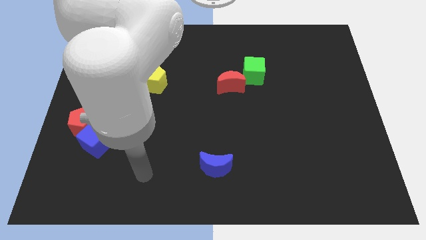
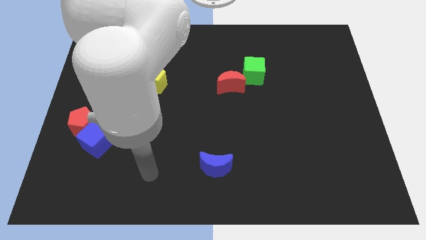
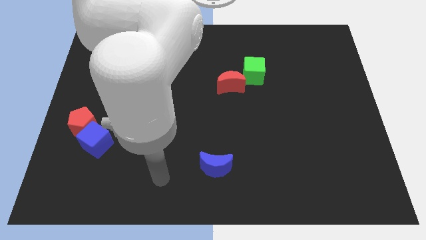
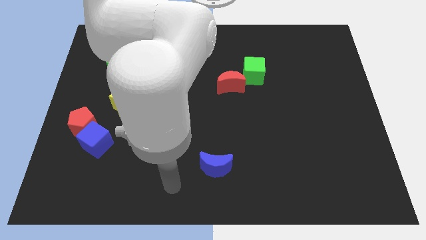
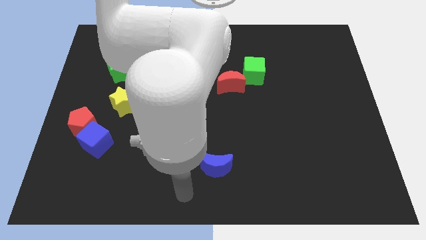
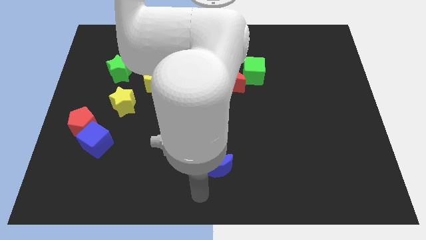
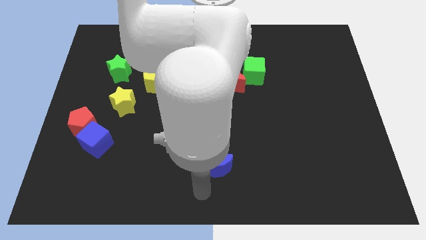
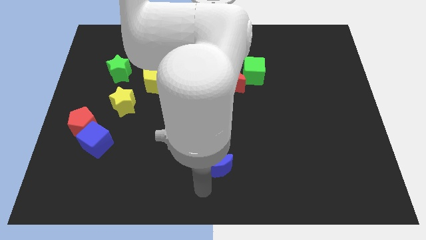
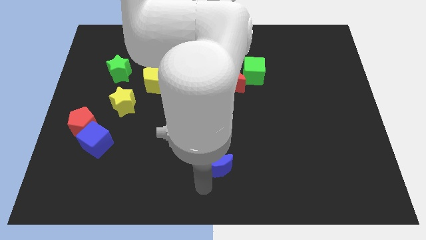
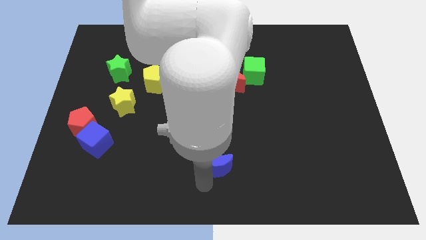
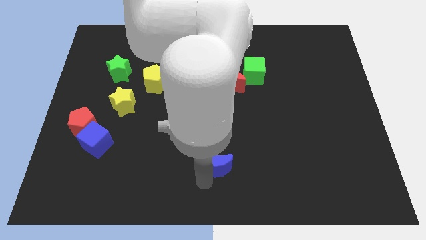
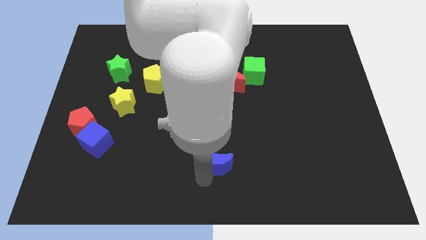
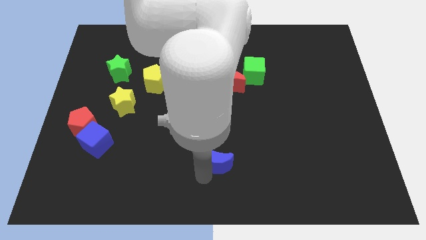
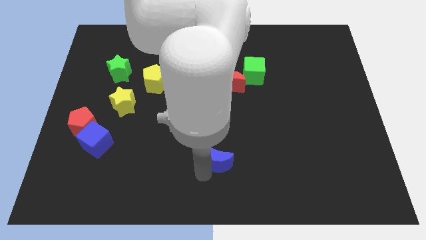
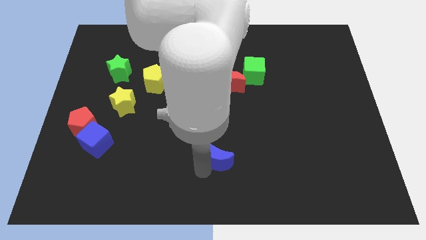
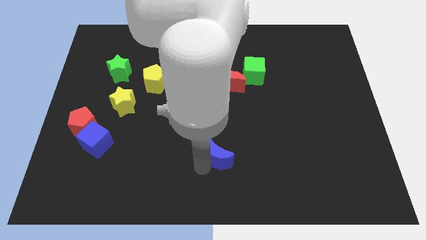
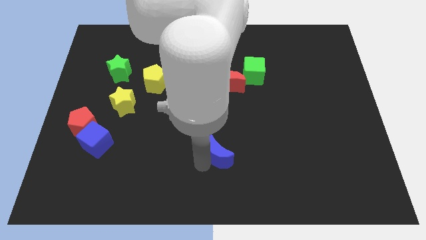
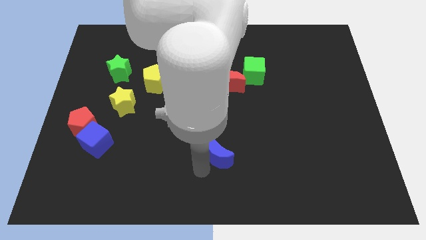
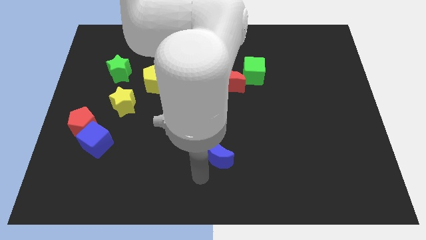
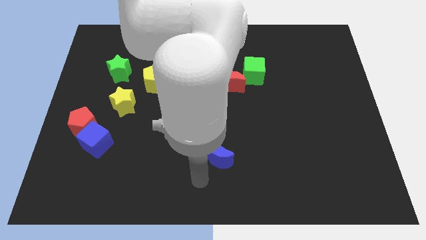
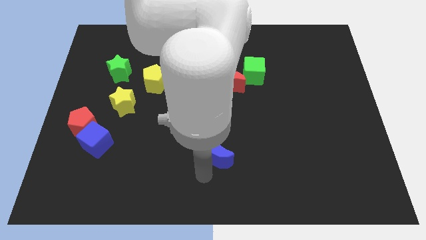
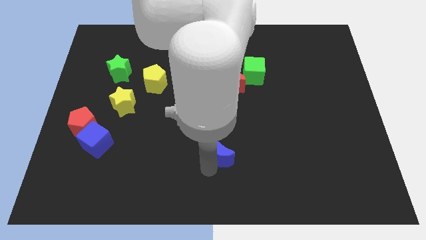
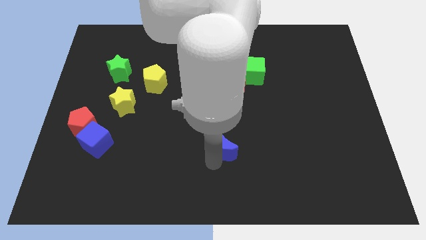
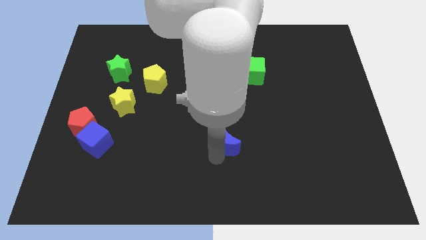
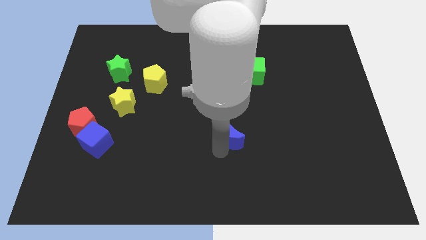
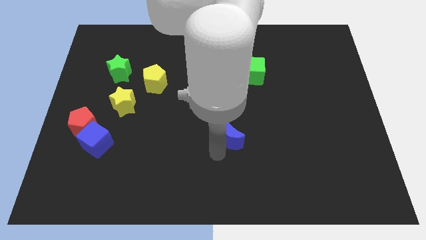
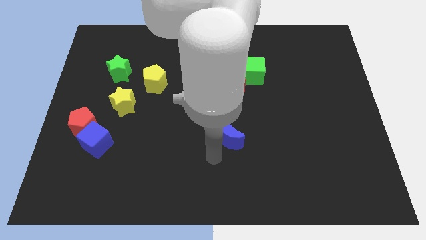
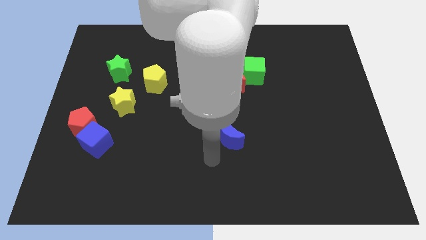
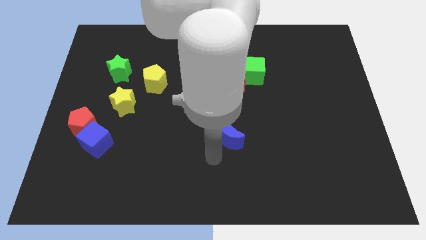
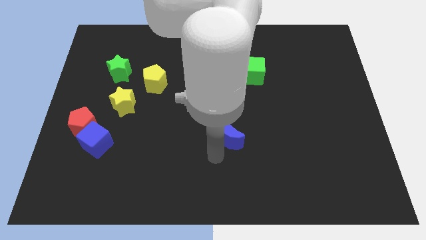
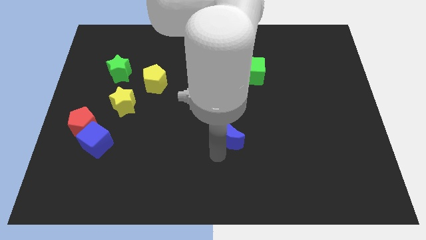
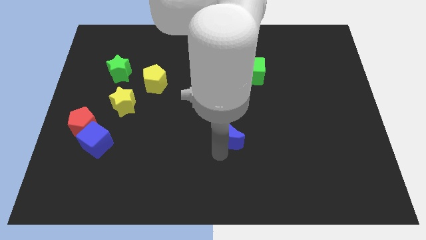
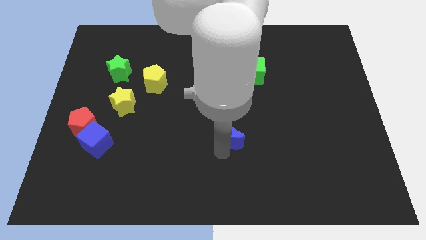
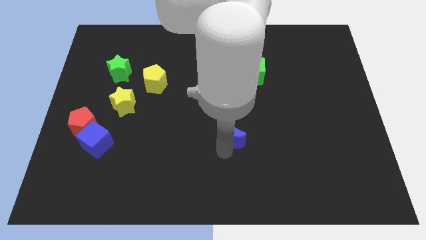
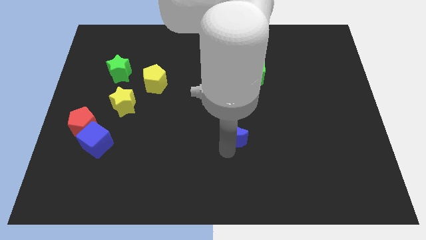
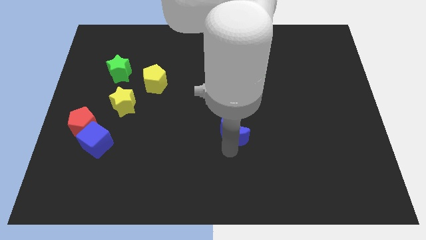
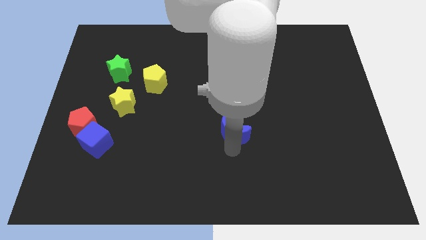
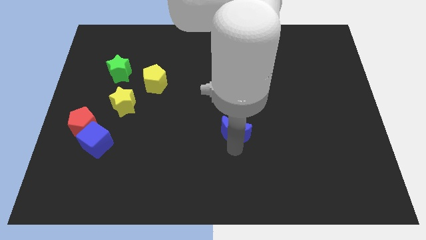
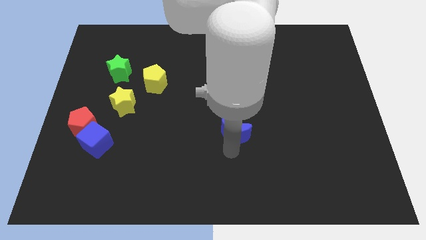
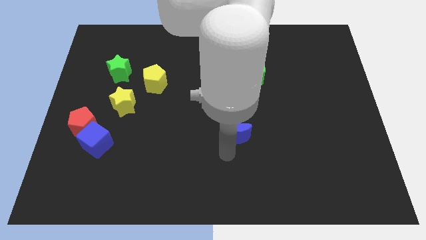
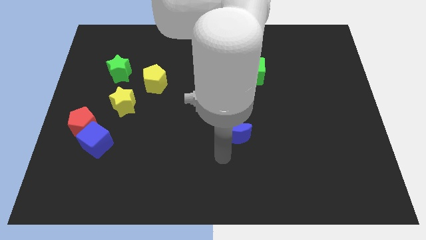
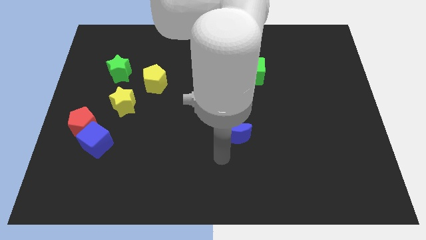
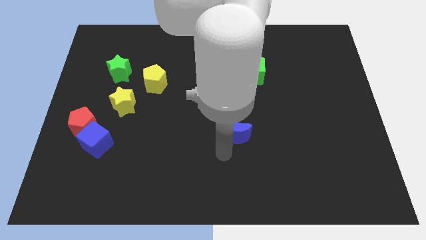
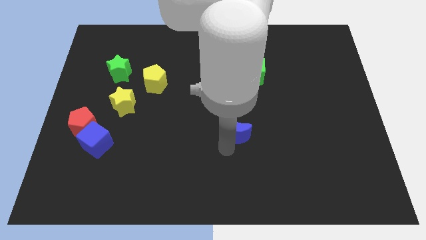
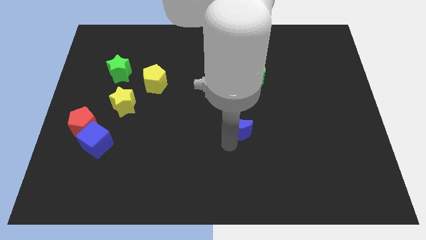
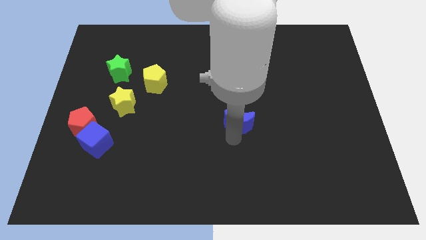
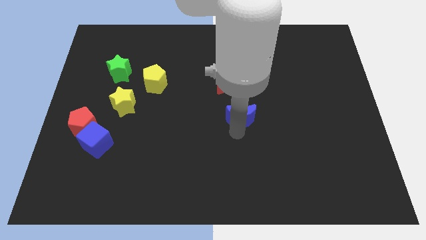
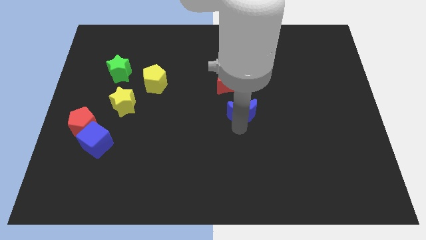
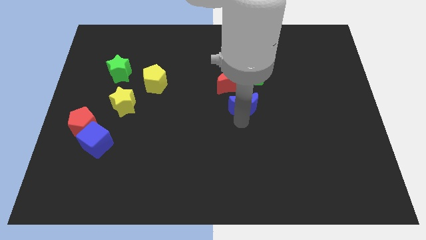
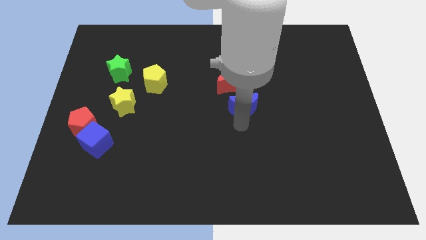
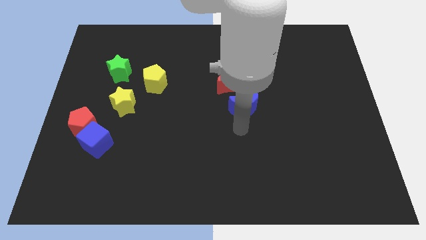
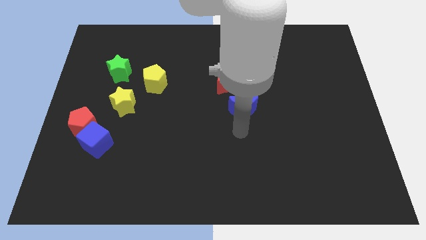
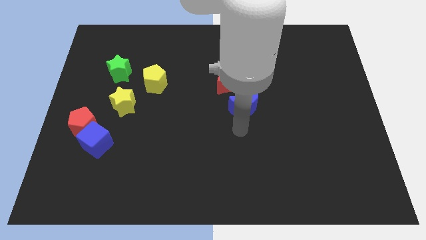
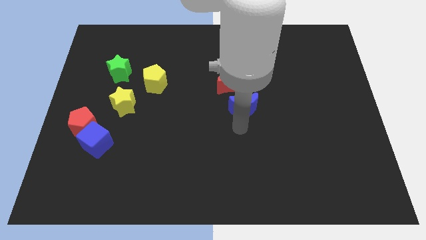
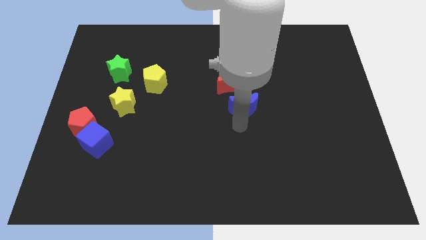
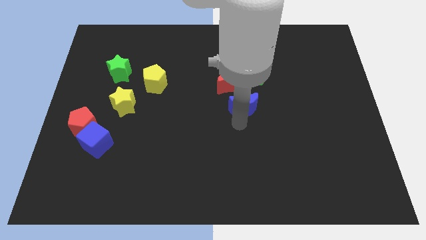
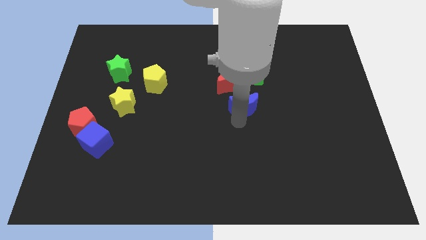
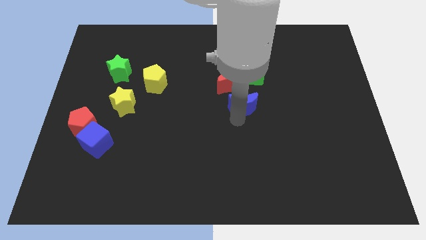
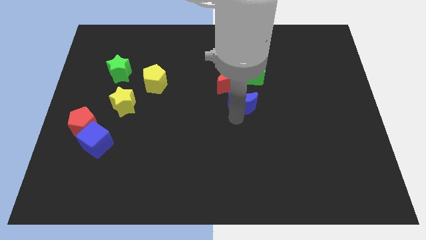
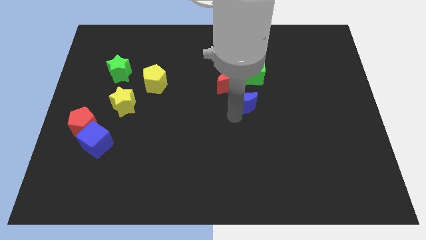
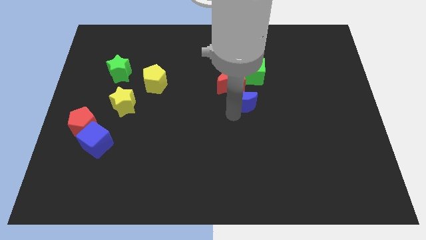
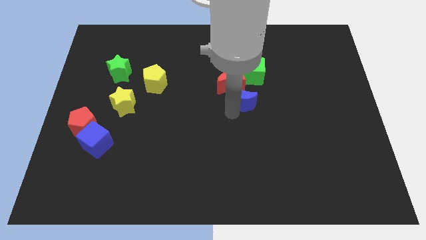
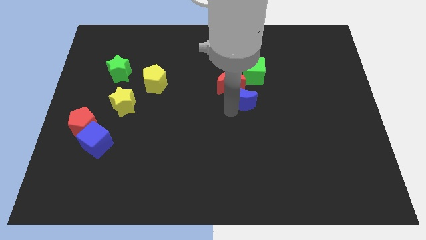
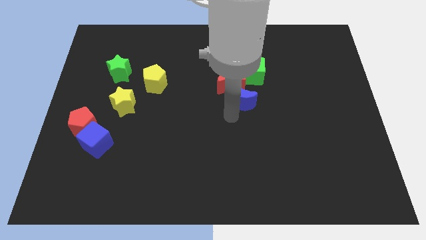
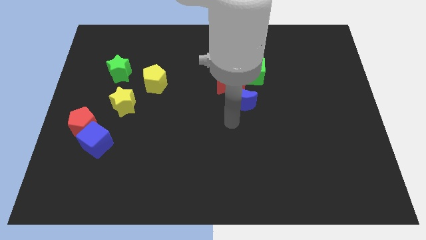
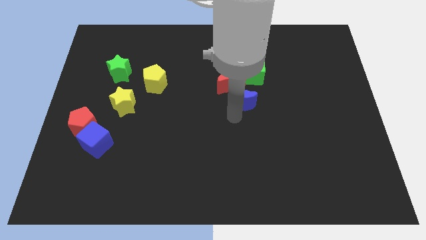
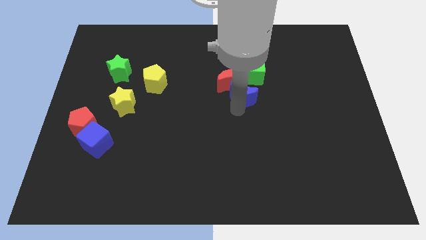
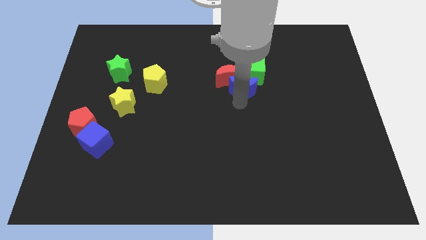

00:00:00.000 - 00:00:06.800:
put the blue moon to the green cube

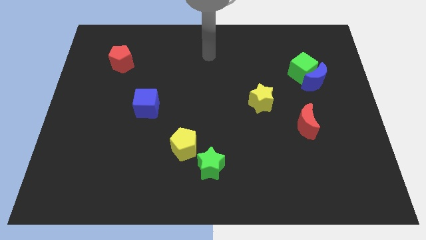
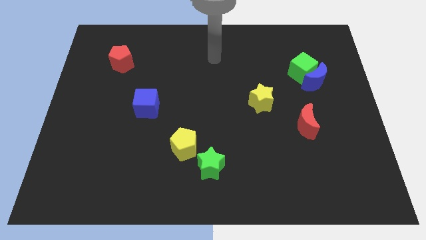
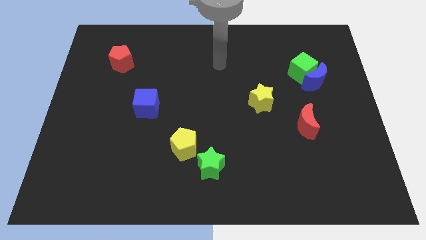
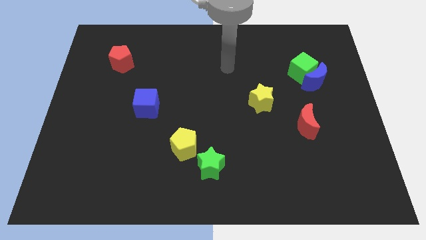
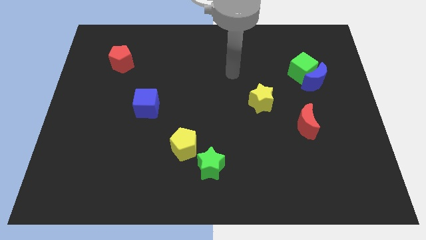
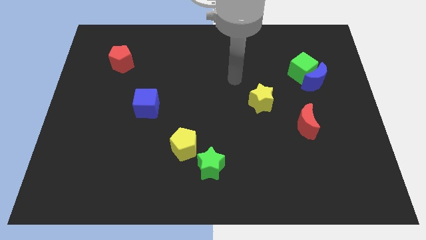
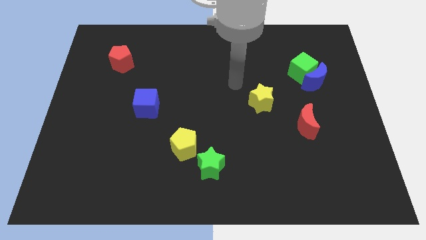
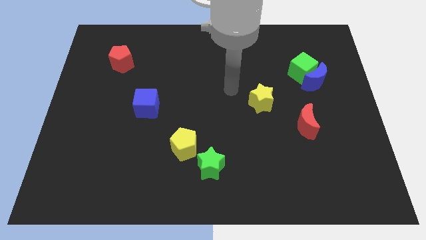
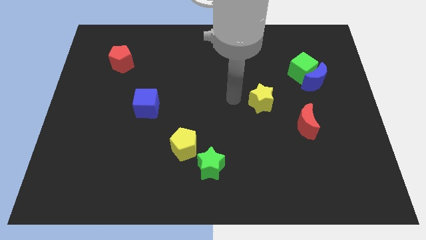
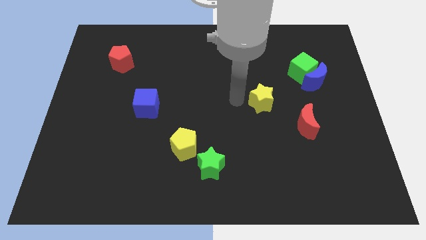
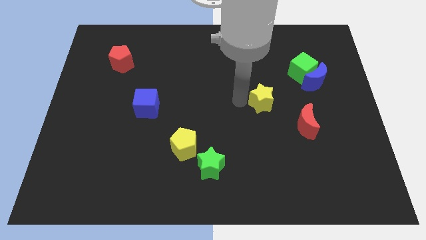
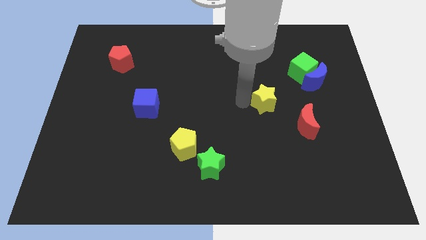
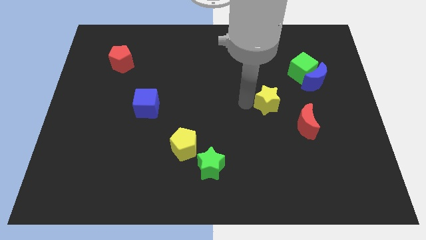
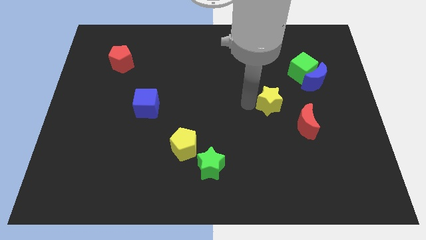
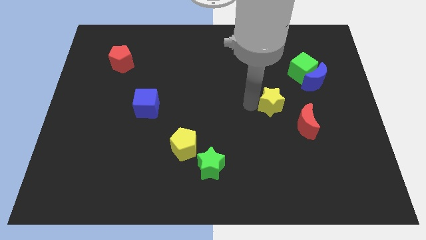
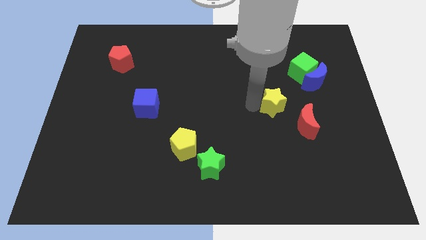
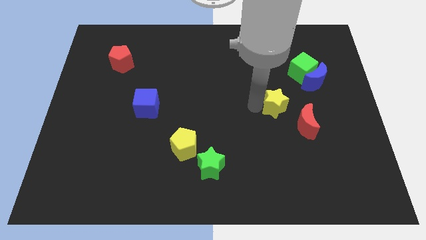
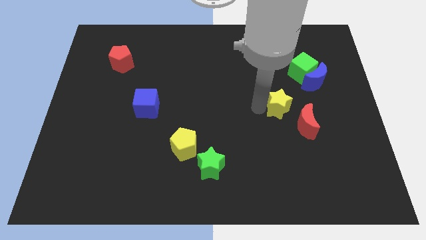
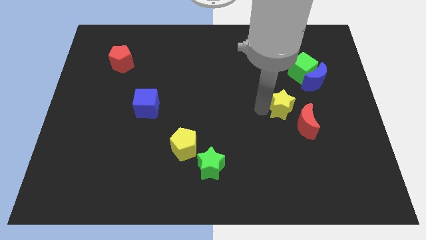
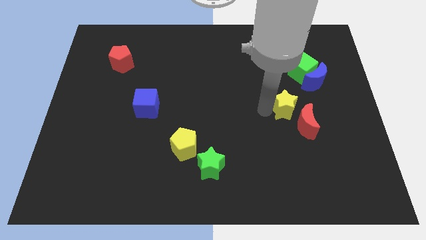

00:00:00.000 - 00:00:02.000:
put the yellow star to the red moon
